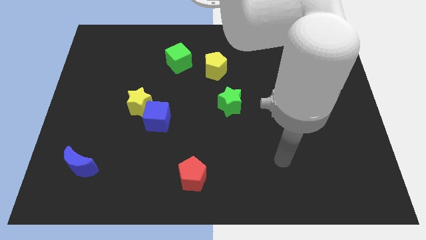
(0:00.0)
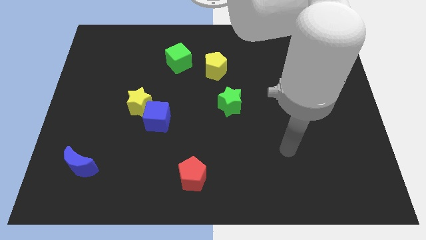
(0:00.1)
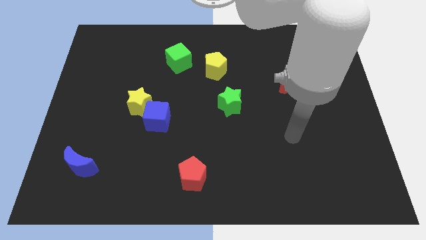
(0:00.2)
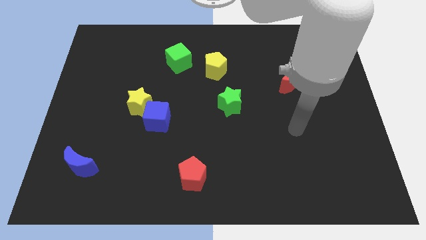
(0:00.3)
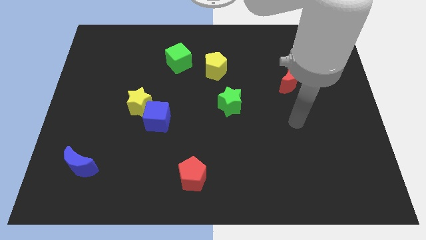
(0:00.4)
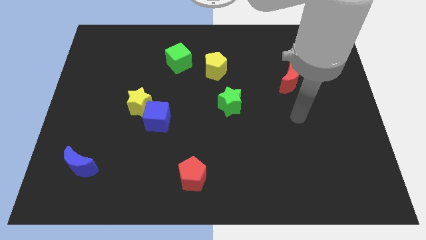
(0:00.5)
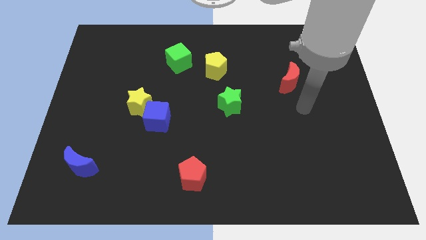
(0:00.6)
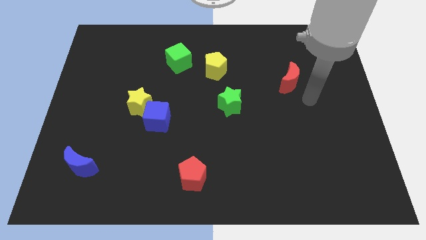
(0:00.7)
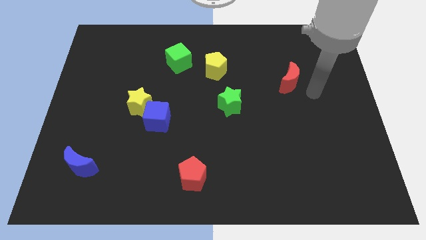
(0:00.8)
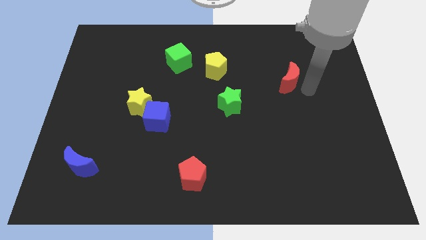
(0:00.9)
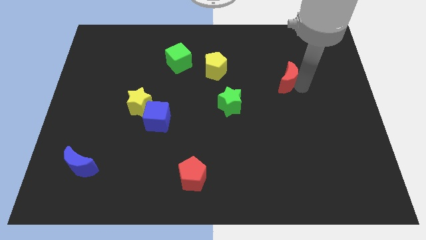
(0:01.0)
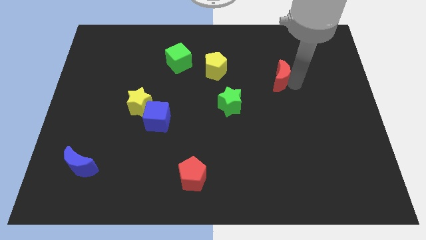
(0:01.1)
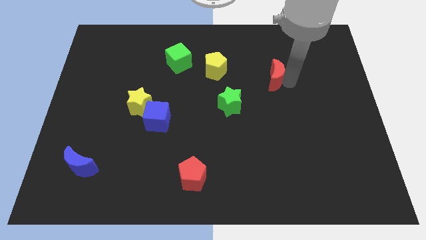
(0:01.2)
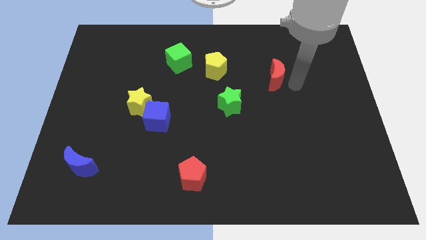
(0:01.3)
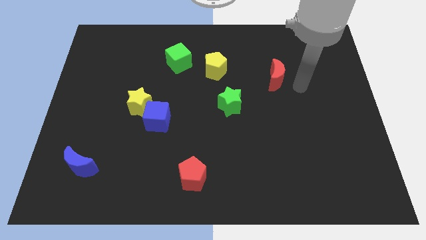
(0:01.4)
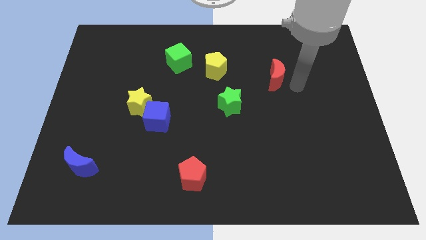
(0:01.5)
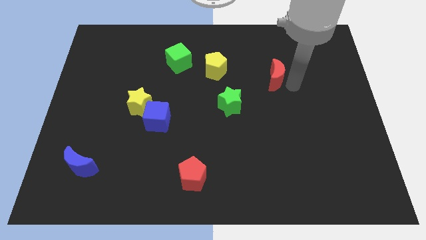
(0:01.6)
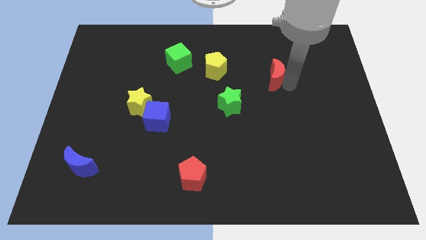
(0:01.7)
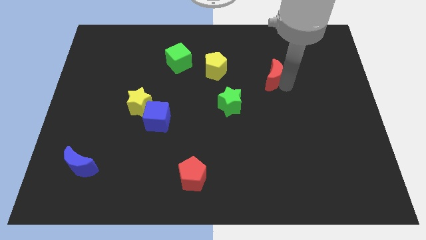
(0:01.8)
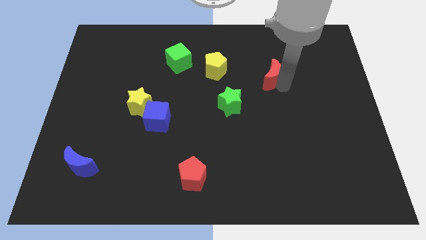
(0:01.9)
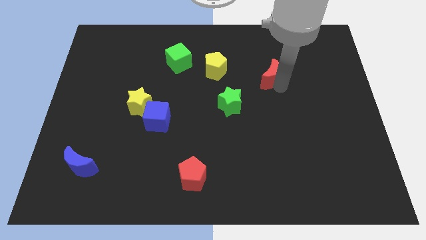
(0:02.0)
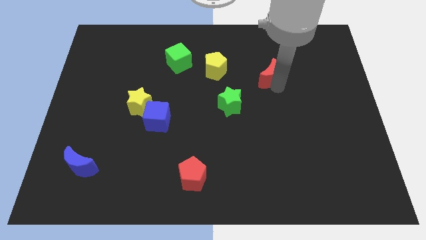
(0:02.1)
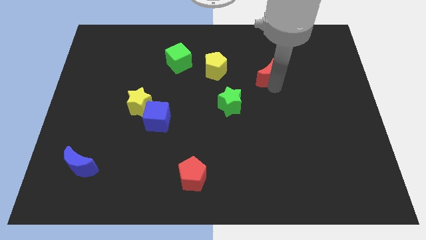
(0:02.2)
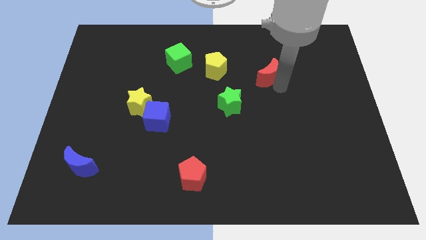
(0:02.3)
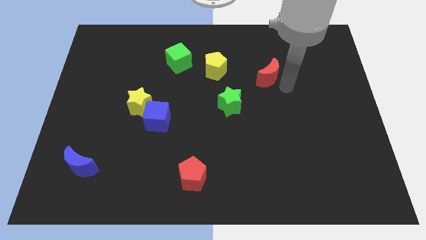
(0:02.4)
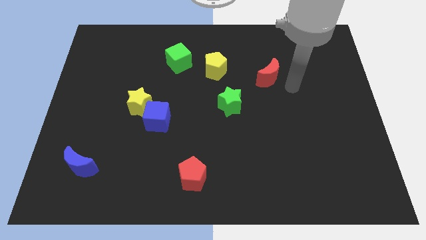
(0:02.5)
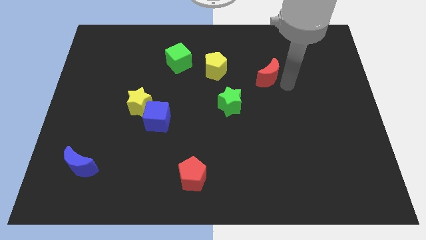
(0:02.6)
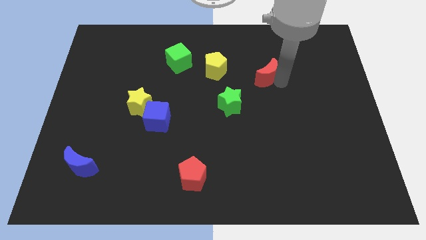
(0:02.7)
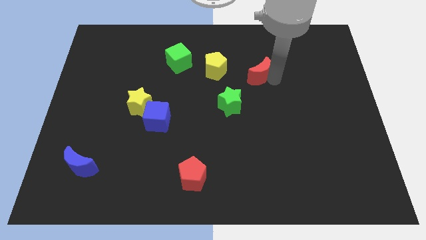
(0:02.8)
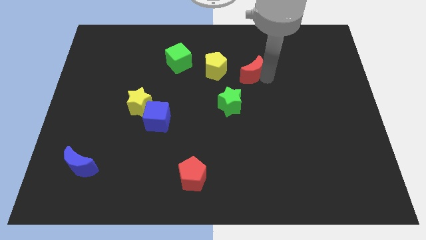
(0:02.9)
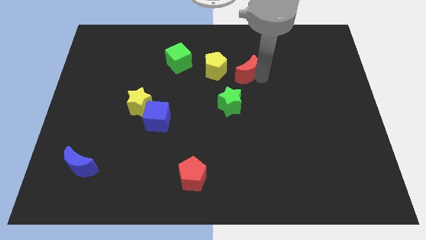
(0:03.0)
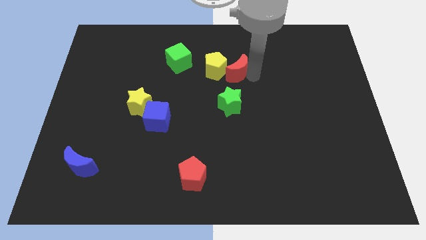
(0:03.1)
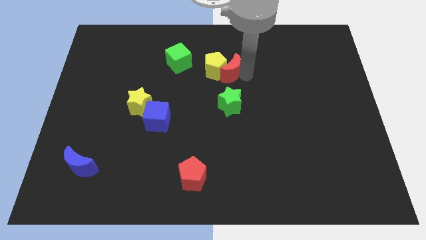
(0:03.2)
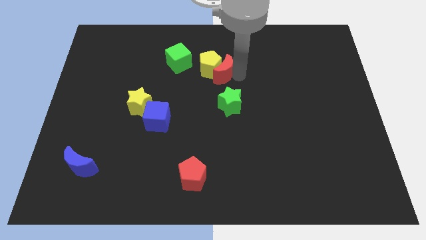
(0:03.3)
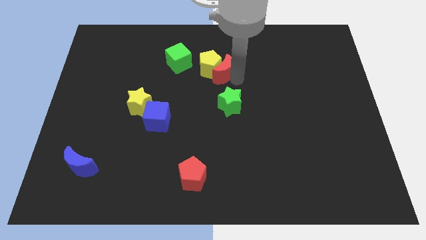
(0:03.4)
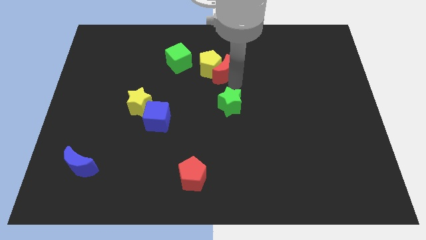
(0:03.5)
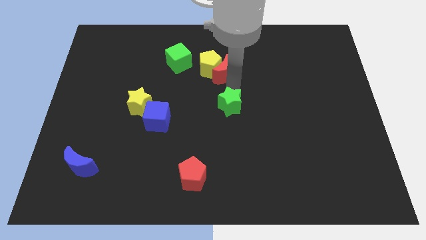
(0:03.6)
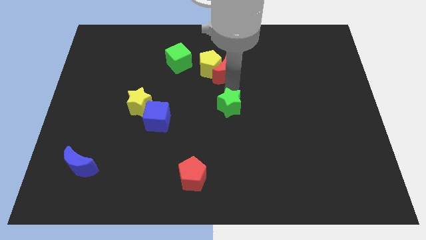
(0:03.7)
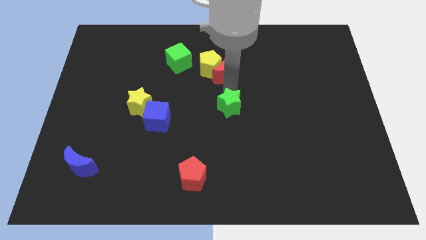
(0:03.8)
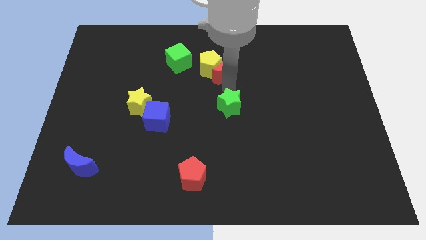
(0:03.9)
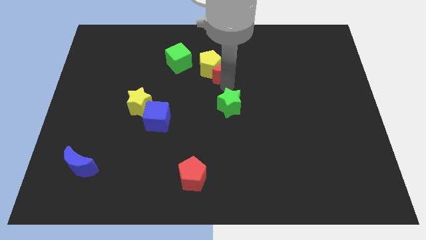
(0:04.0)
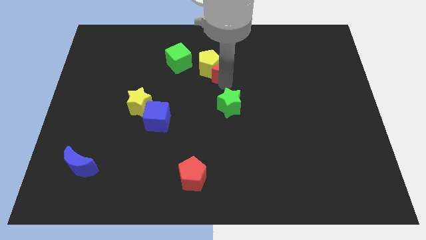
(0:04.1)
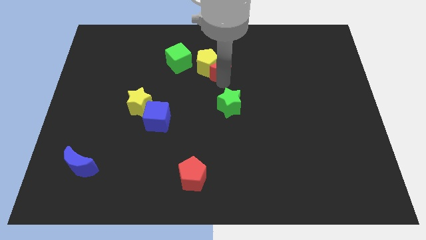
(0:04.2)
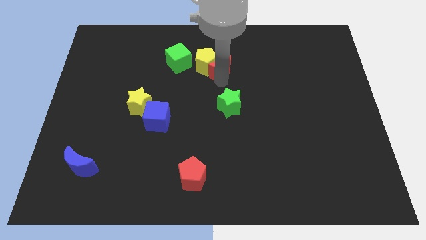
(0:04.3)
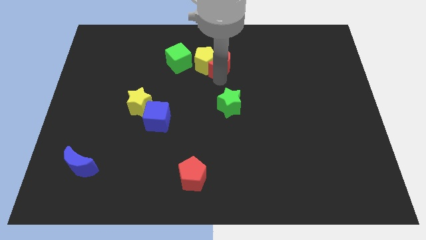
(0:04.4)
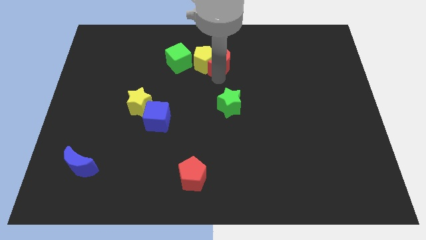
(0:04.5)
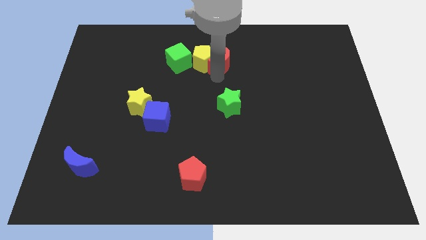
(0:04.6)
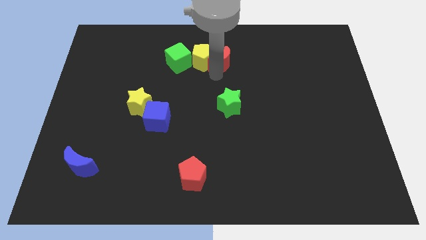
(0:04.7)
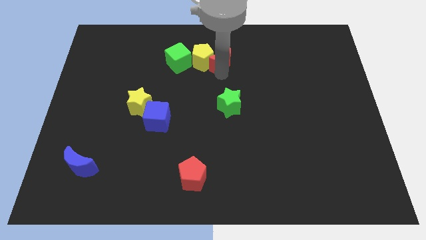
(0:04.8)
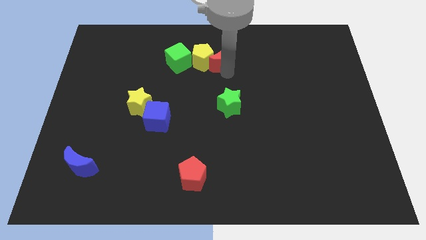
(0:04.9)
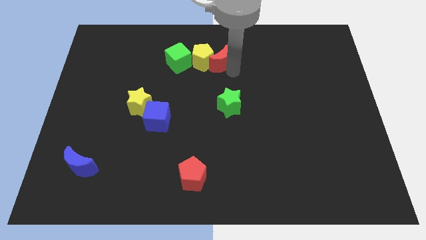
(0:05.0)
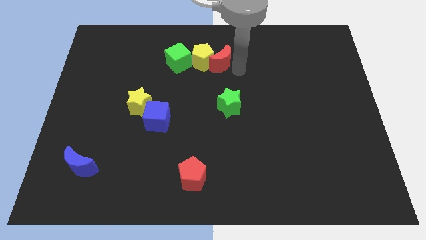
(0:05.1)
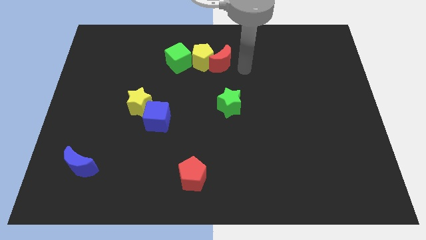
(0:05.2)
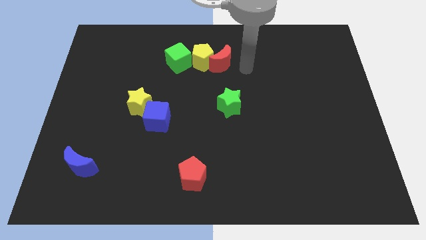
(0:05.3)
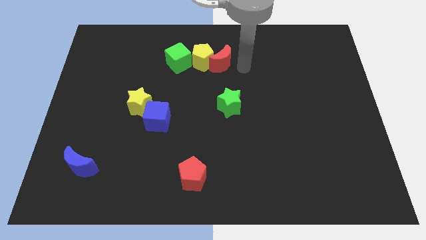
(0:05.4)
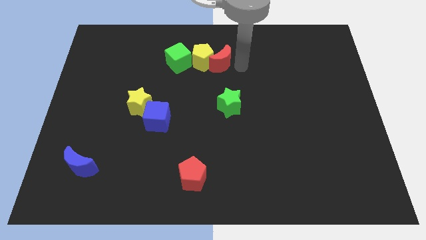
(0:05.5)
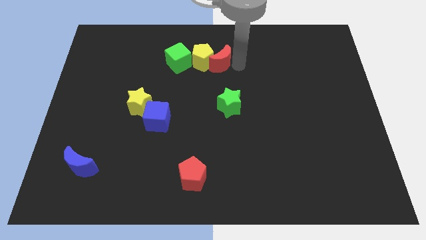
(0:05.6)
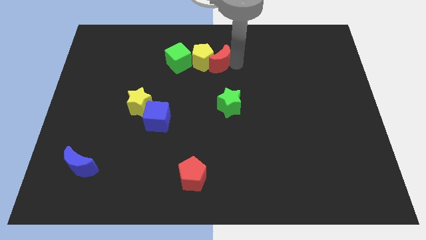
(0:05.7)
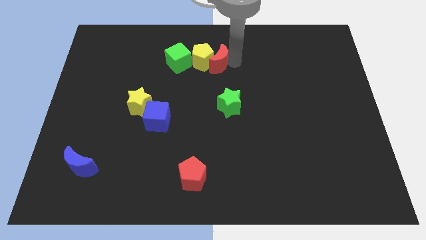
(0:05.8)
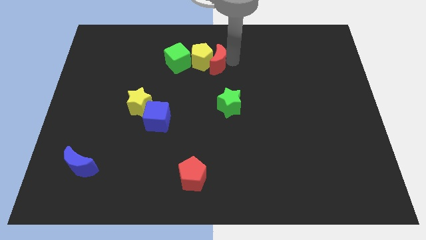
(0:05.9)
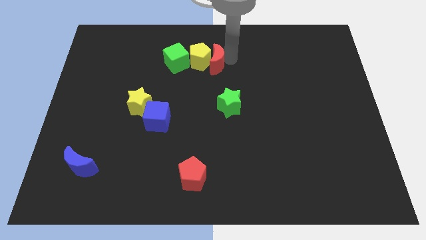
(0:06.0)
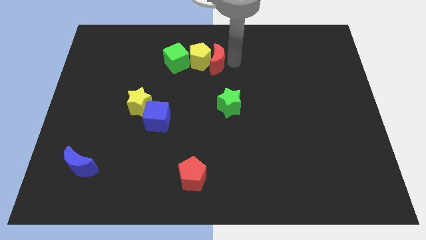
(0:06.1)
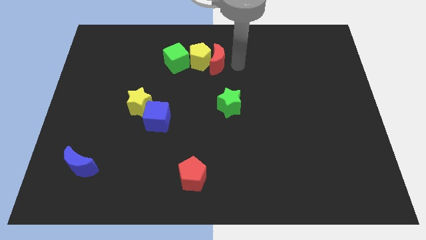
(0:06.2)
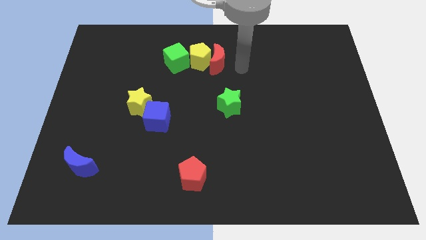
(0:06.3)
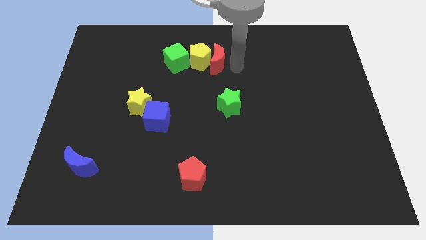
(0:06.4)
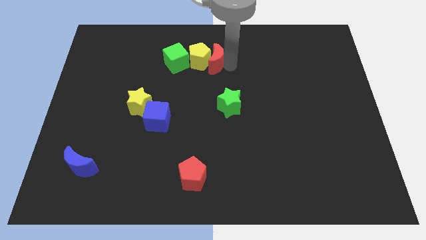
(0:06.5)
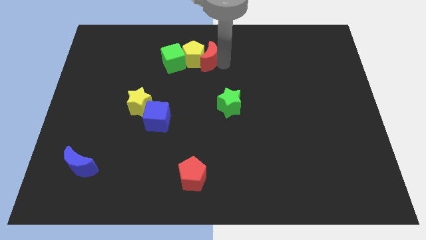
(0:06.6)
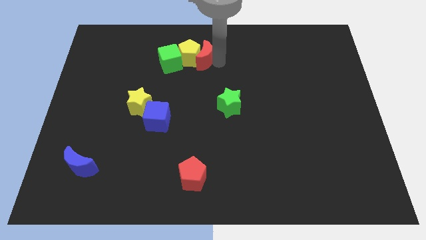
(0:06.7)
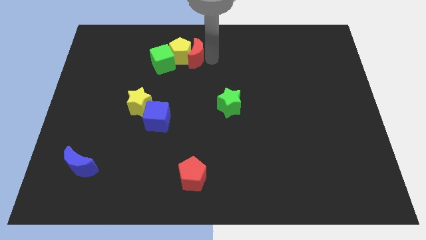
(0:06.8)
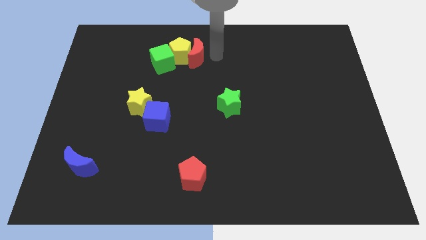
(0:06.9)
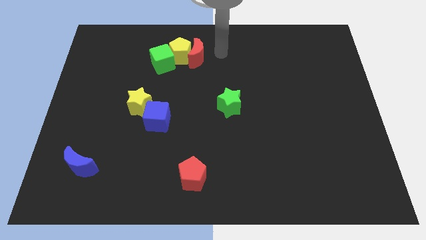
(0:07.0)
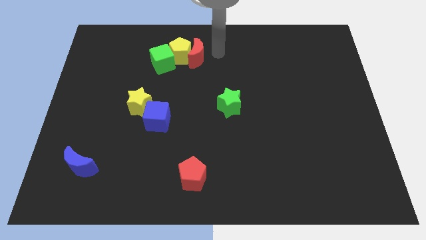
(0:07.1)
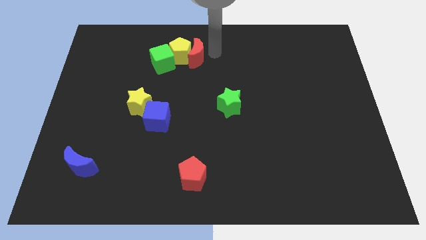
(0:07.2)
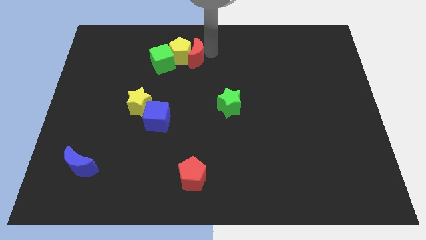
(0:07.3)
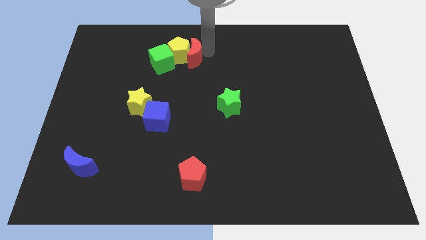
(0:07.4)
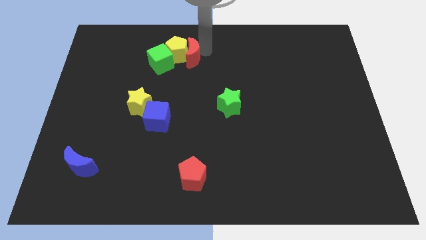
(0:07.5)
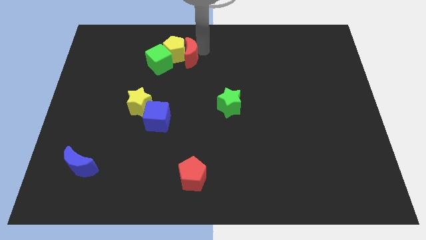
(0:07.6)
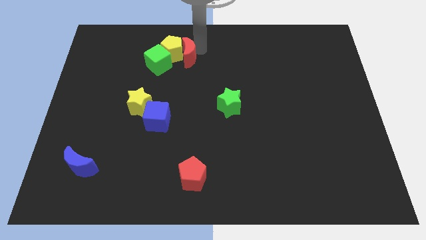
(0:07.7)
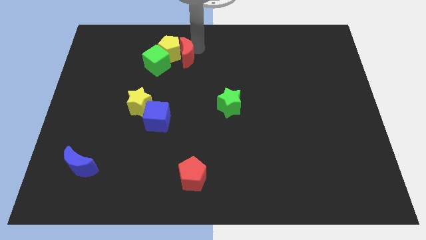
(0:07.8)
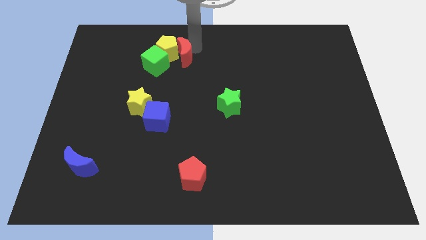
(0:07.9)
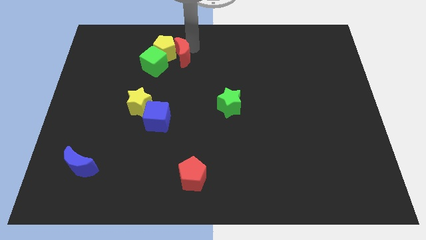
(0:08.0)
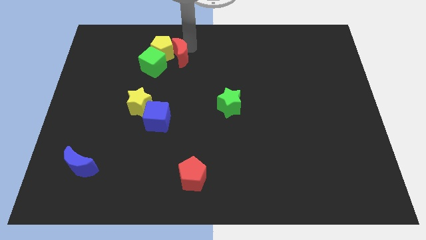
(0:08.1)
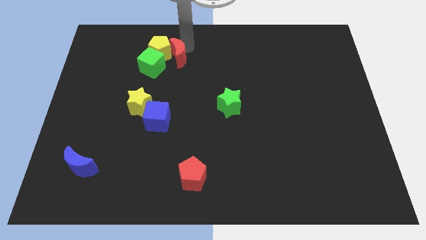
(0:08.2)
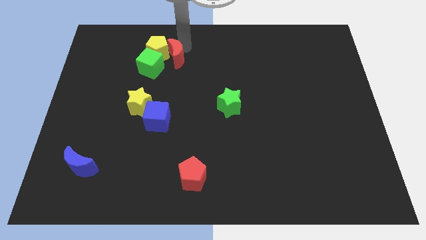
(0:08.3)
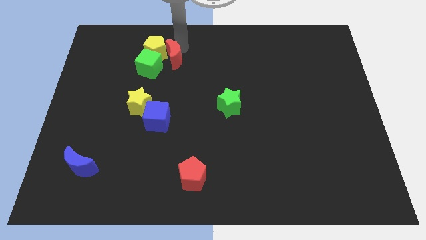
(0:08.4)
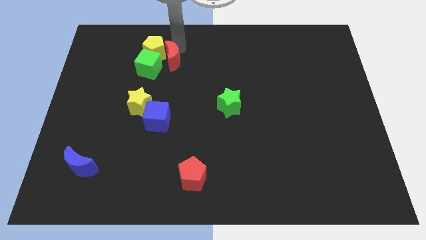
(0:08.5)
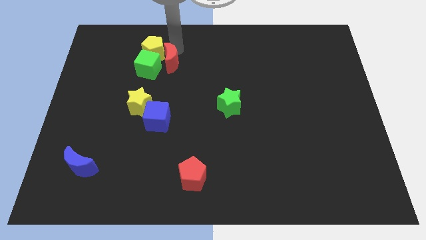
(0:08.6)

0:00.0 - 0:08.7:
push the red moon close to the green cube
